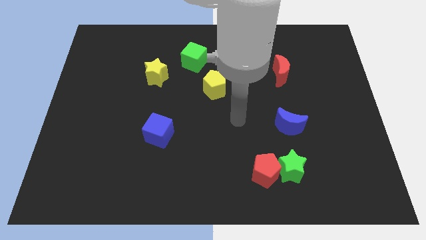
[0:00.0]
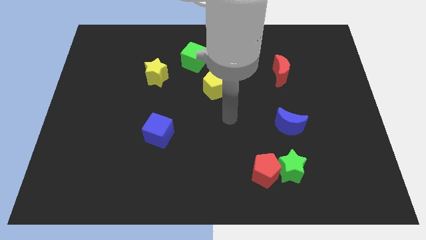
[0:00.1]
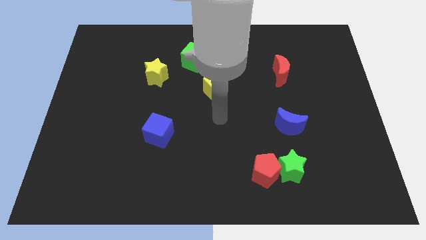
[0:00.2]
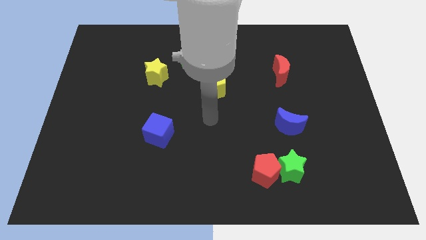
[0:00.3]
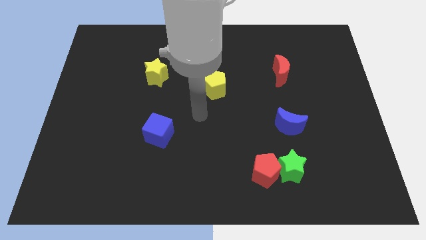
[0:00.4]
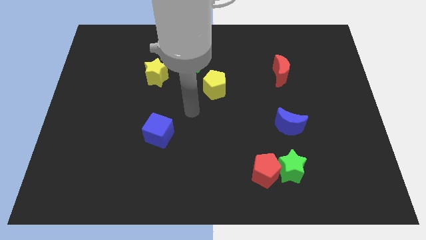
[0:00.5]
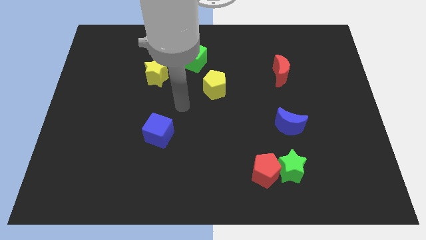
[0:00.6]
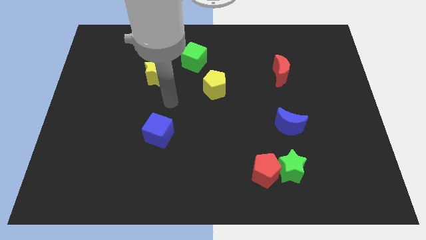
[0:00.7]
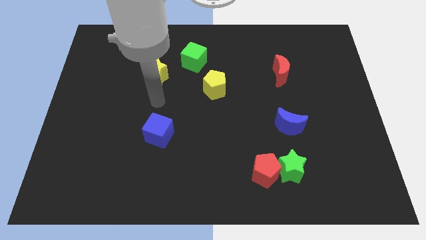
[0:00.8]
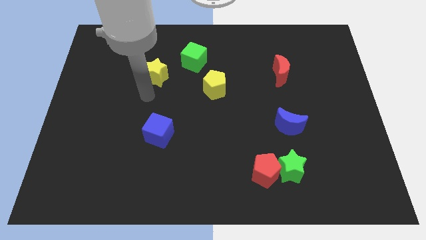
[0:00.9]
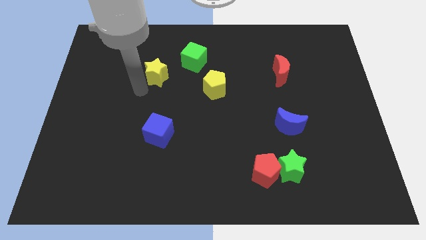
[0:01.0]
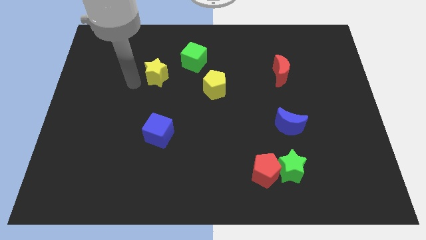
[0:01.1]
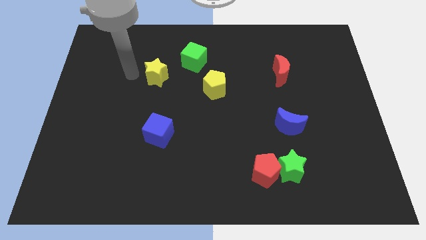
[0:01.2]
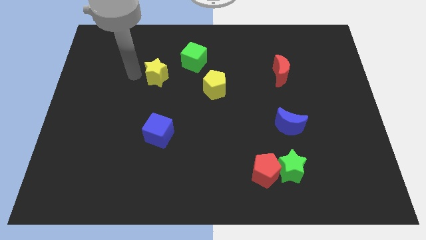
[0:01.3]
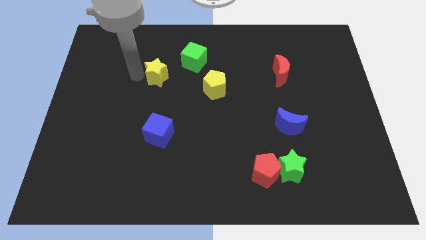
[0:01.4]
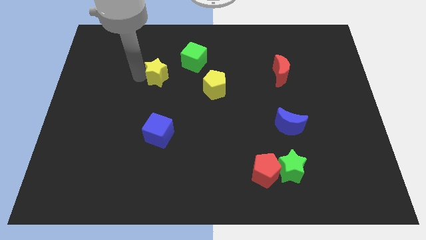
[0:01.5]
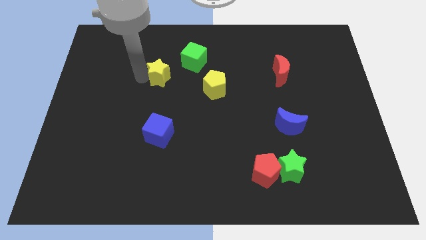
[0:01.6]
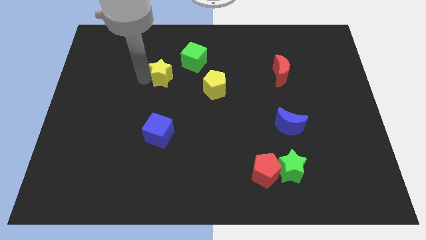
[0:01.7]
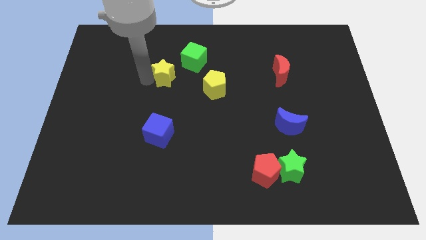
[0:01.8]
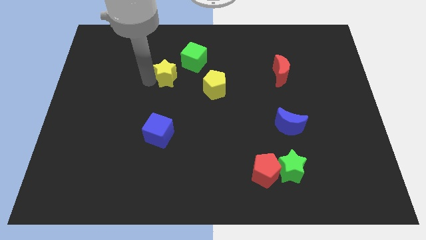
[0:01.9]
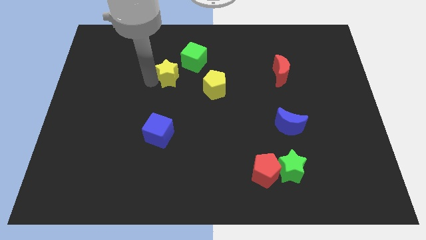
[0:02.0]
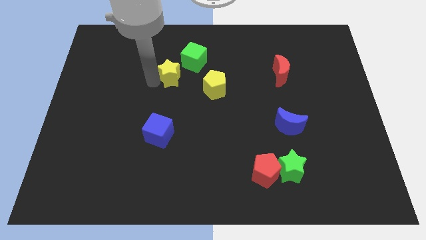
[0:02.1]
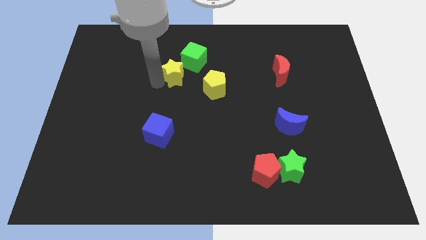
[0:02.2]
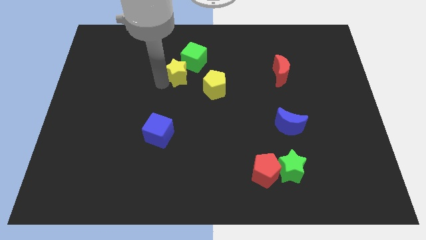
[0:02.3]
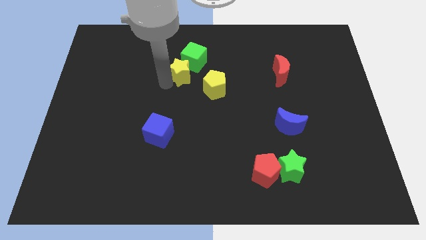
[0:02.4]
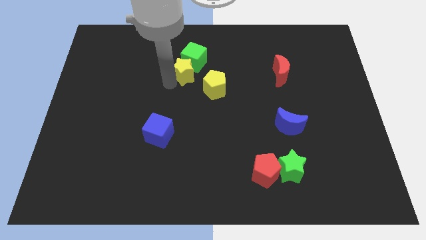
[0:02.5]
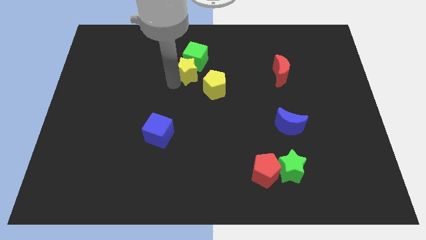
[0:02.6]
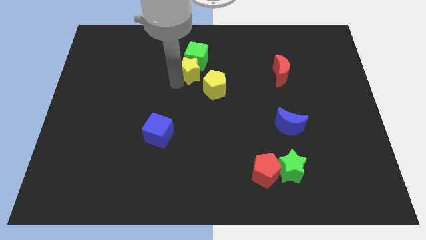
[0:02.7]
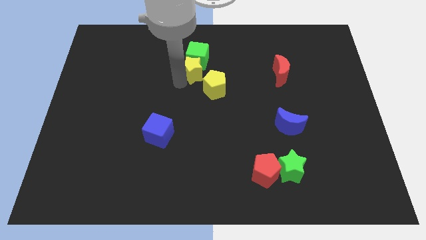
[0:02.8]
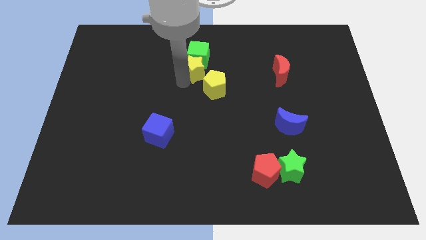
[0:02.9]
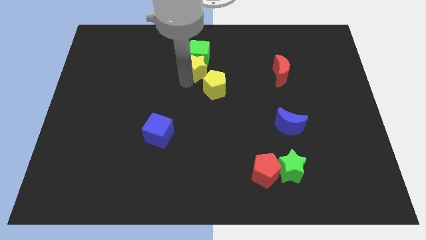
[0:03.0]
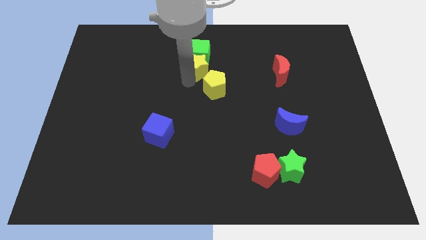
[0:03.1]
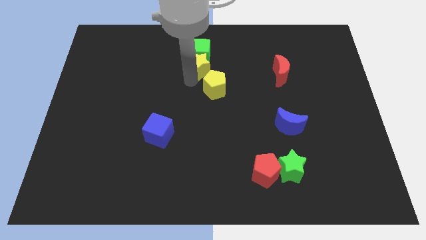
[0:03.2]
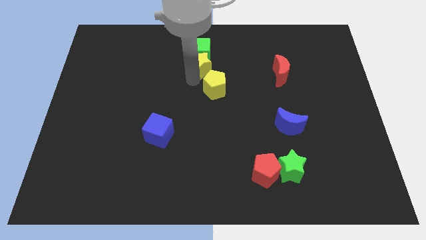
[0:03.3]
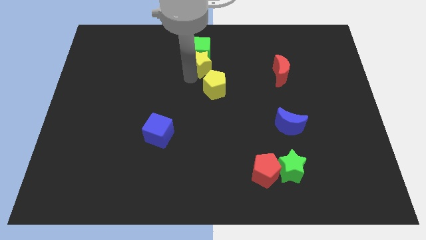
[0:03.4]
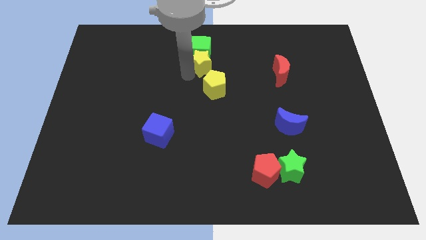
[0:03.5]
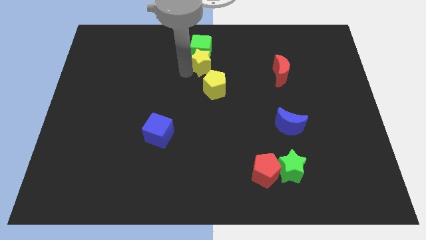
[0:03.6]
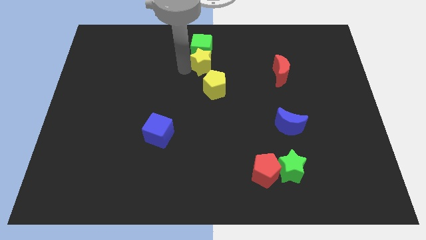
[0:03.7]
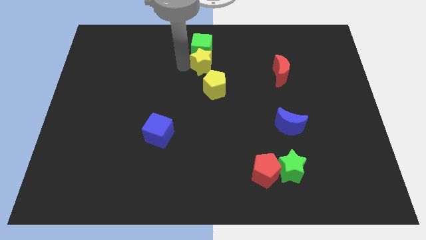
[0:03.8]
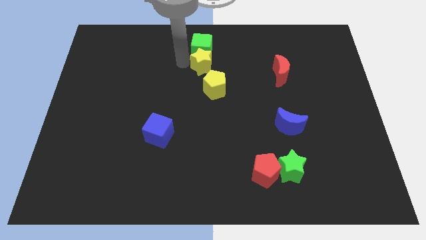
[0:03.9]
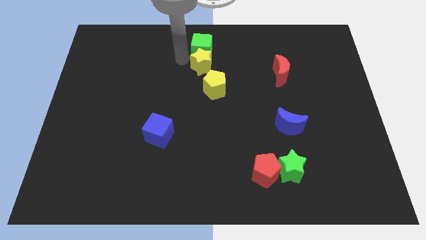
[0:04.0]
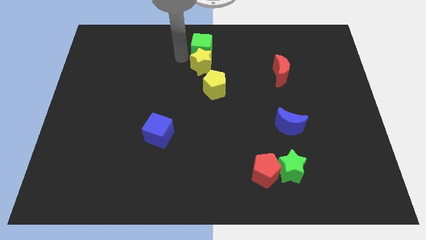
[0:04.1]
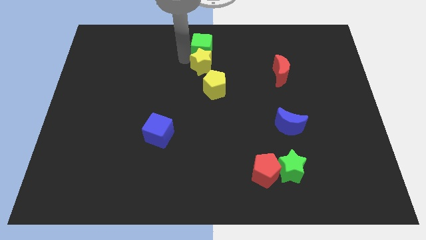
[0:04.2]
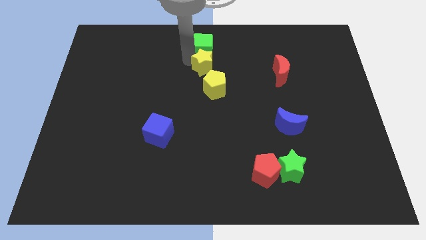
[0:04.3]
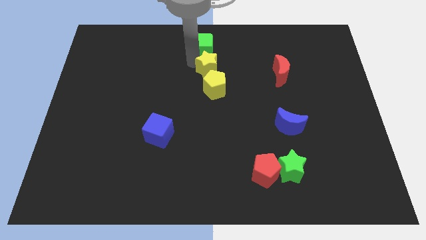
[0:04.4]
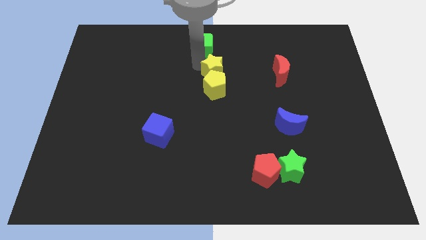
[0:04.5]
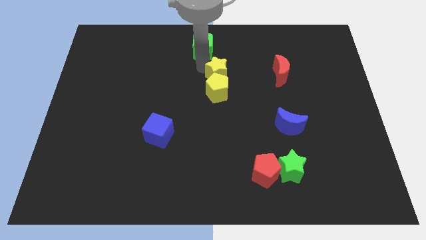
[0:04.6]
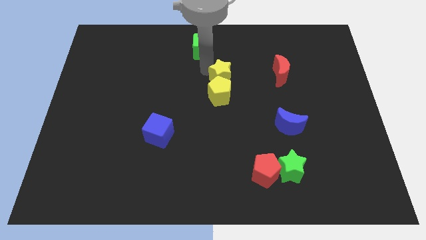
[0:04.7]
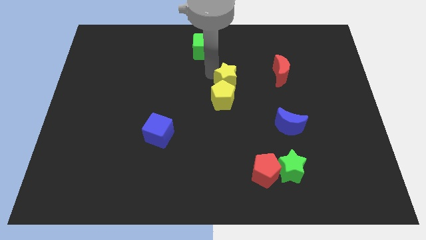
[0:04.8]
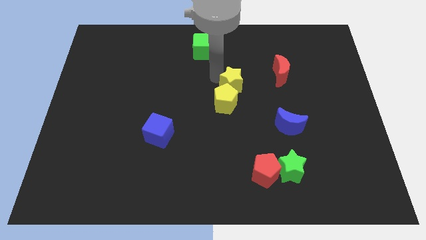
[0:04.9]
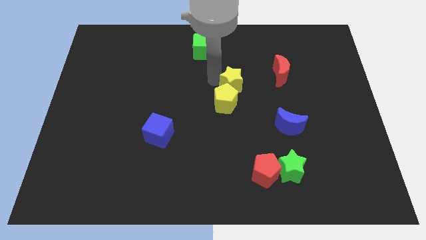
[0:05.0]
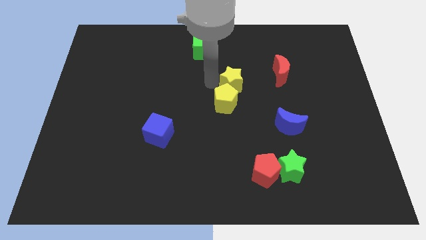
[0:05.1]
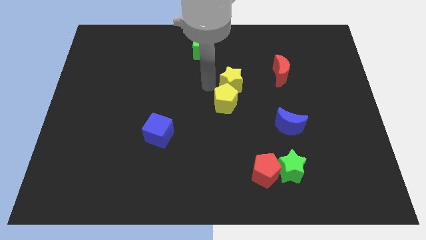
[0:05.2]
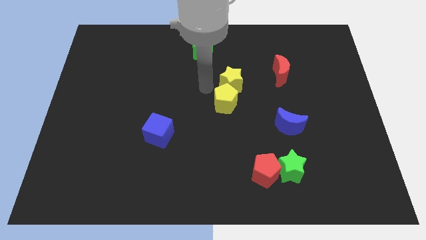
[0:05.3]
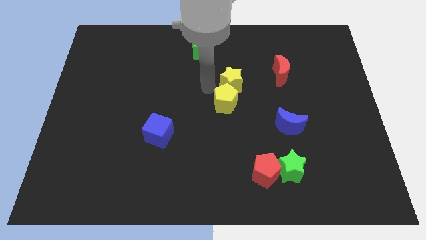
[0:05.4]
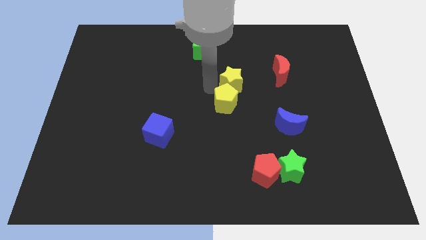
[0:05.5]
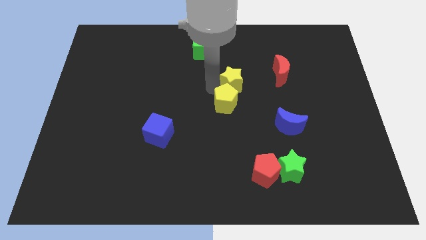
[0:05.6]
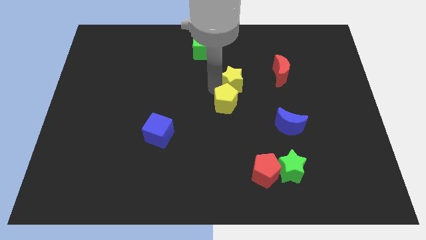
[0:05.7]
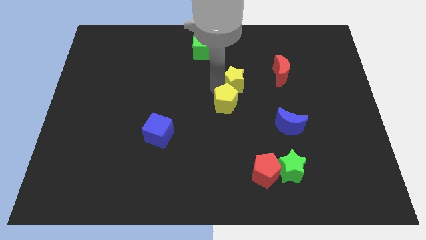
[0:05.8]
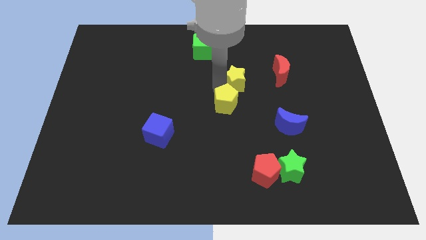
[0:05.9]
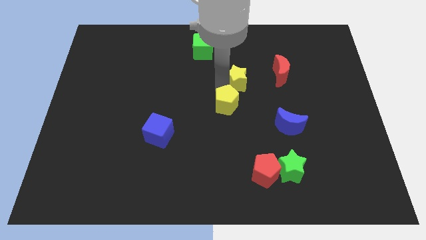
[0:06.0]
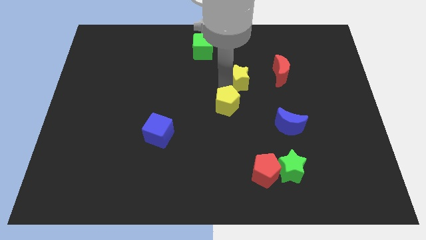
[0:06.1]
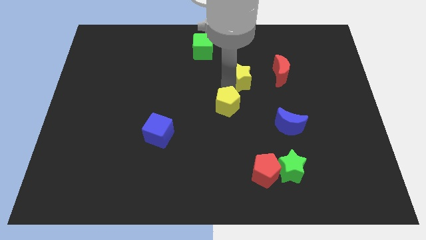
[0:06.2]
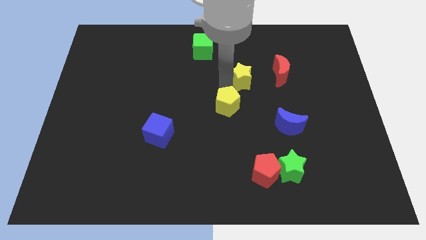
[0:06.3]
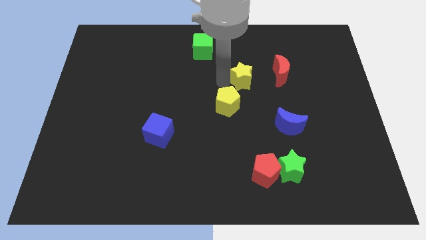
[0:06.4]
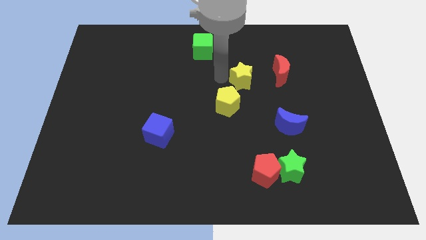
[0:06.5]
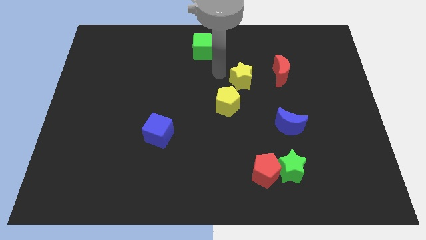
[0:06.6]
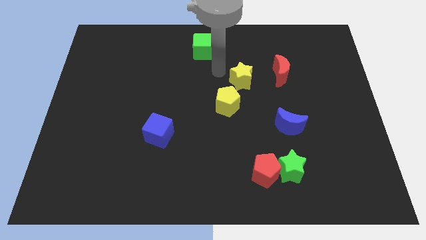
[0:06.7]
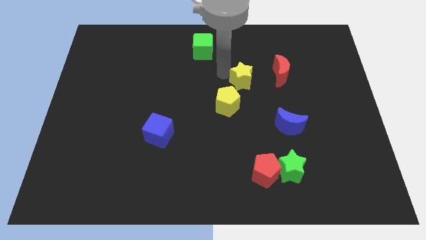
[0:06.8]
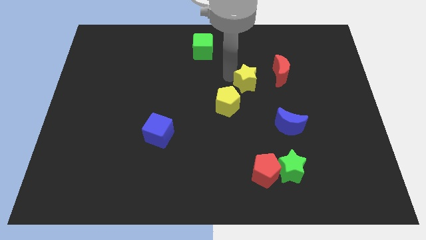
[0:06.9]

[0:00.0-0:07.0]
slide the yellow star diagonally down and to the left of the red moon
